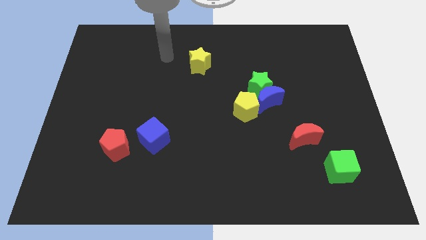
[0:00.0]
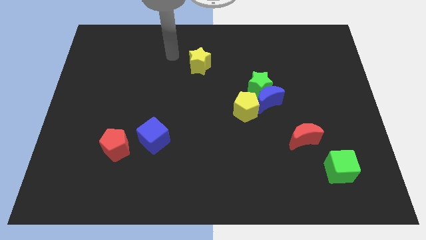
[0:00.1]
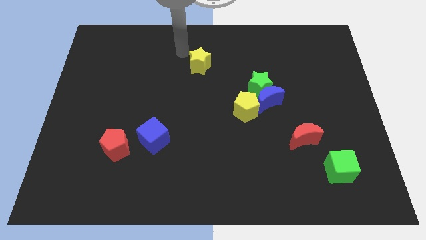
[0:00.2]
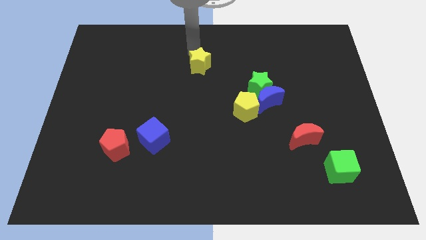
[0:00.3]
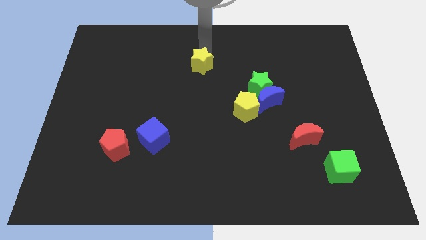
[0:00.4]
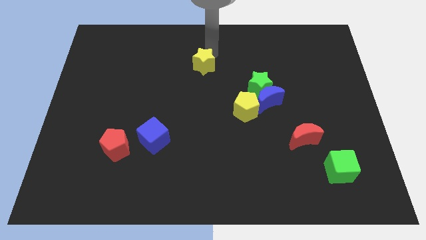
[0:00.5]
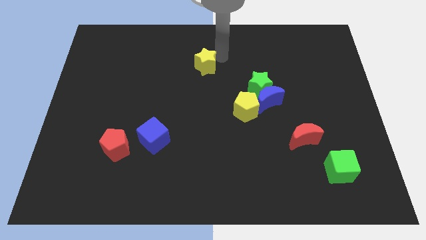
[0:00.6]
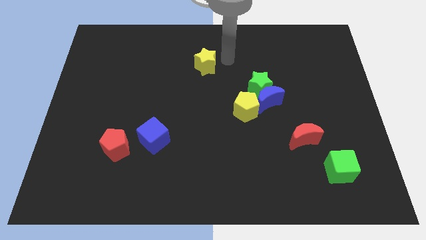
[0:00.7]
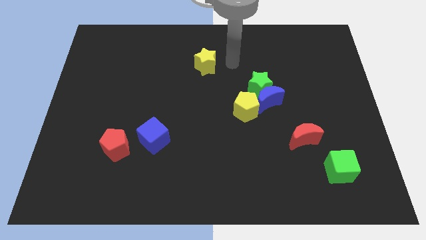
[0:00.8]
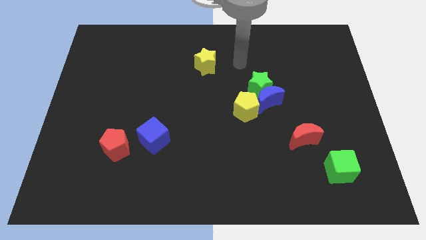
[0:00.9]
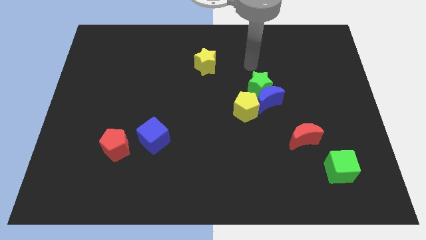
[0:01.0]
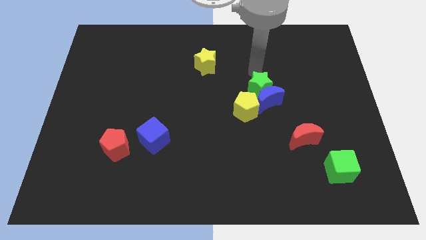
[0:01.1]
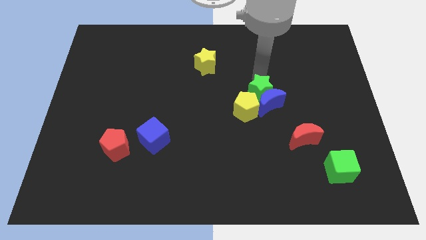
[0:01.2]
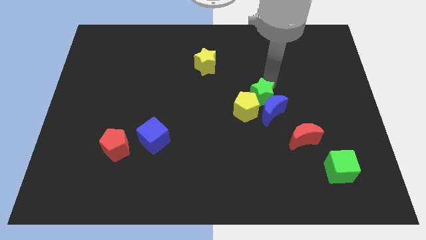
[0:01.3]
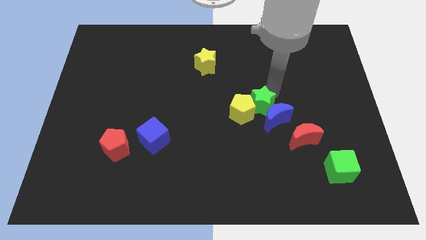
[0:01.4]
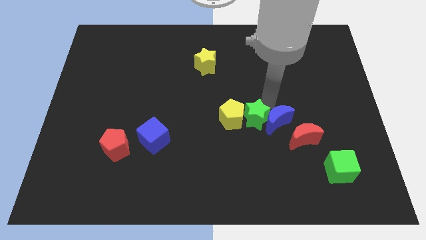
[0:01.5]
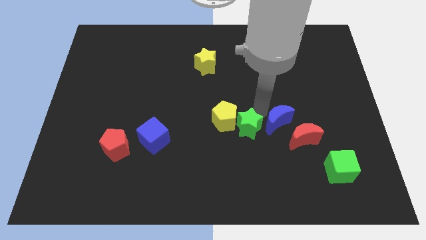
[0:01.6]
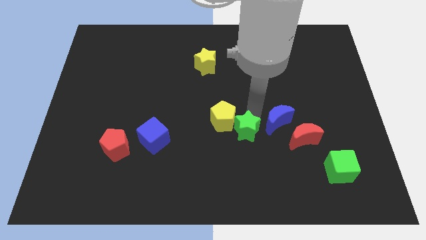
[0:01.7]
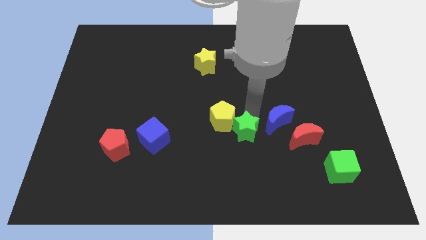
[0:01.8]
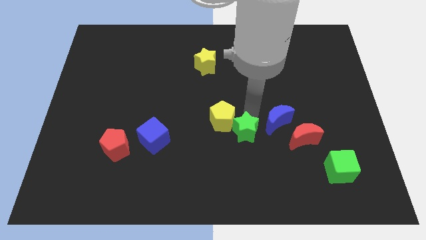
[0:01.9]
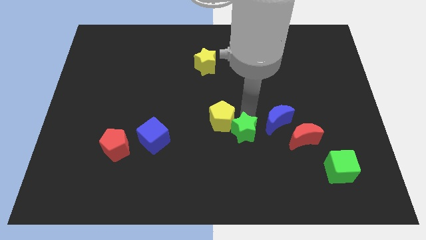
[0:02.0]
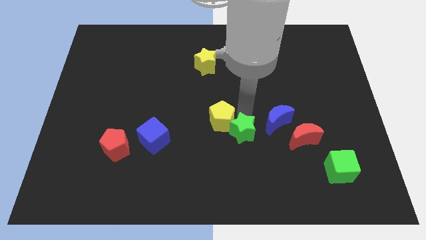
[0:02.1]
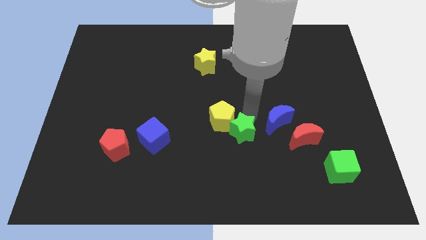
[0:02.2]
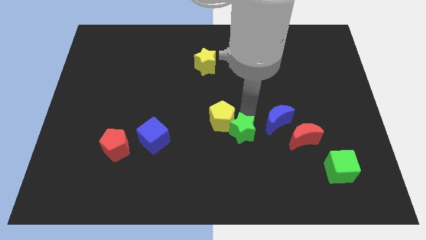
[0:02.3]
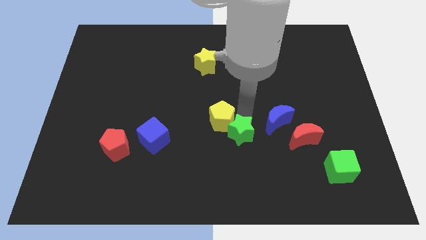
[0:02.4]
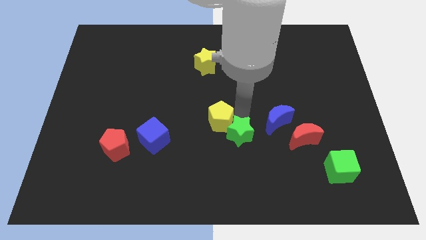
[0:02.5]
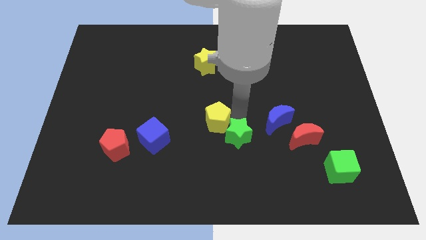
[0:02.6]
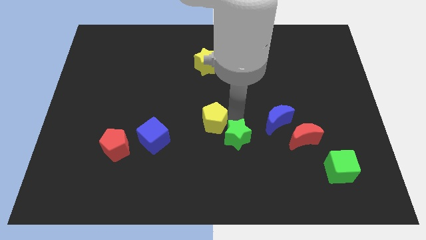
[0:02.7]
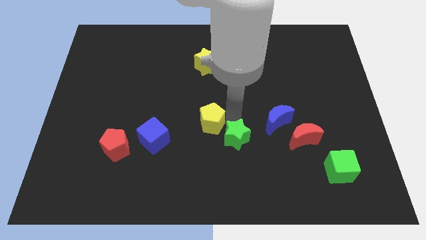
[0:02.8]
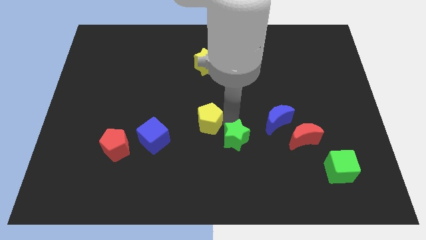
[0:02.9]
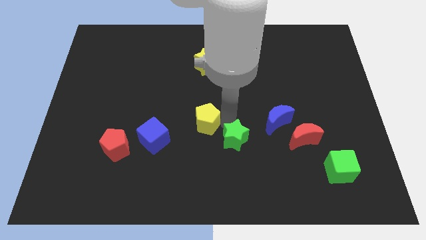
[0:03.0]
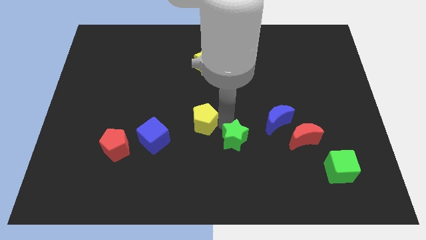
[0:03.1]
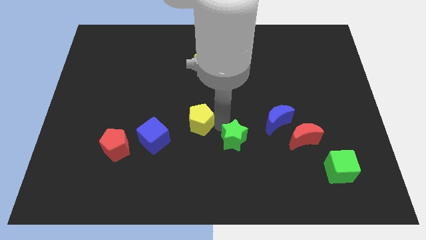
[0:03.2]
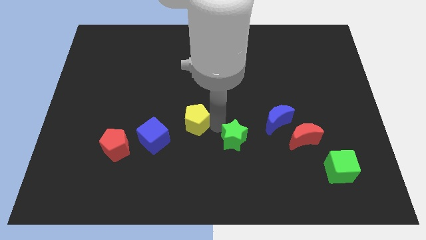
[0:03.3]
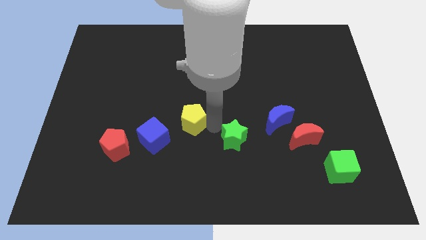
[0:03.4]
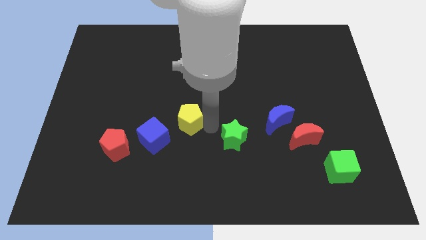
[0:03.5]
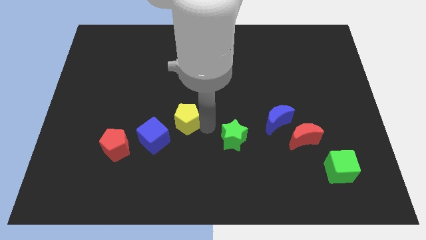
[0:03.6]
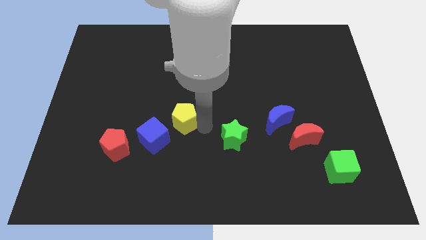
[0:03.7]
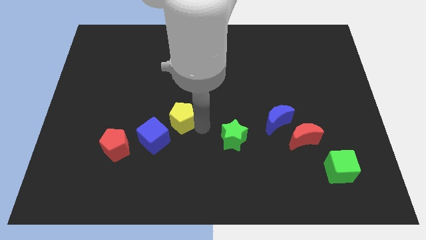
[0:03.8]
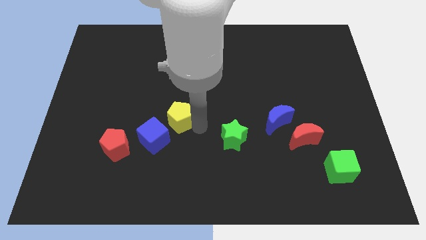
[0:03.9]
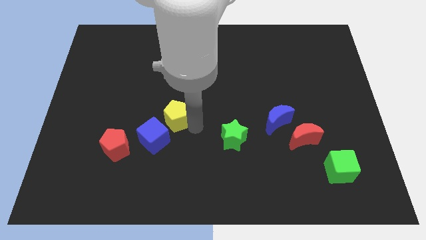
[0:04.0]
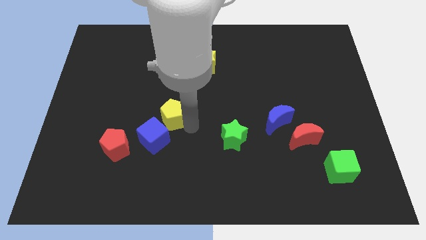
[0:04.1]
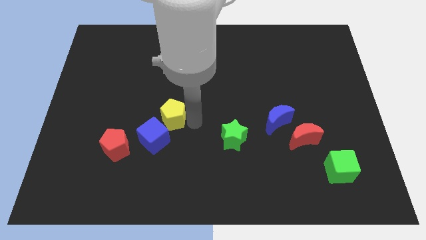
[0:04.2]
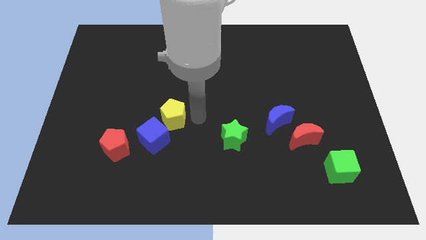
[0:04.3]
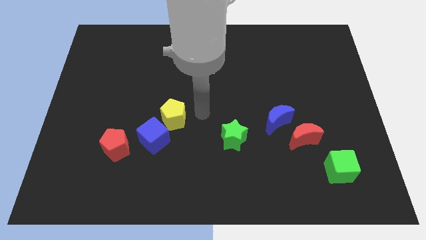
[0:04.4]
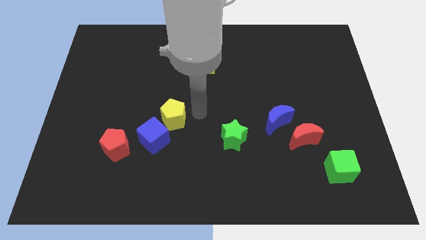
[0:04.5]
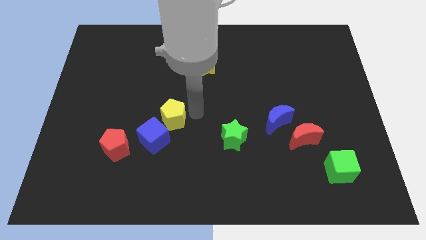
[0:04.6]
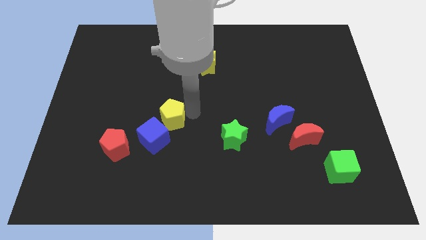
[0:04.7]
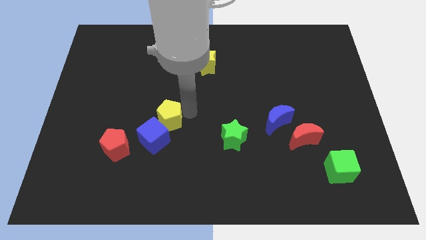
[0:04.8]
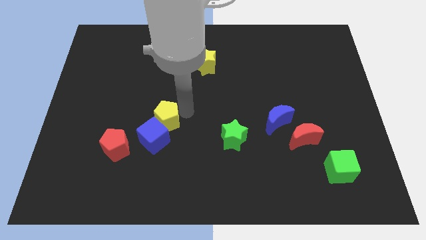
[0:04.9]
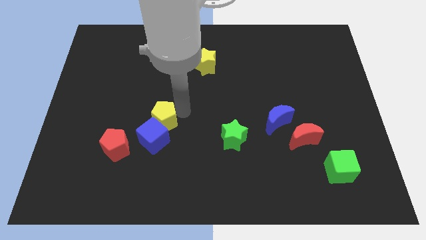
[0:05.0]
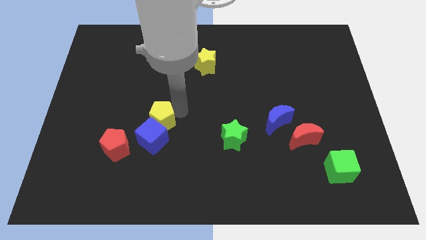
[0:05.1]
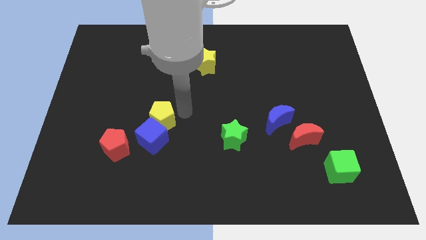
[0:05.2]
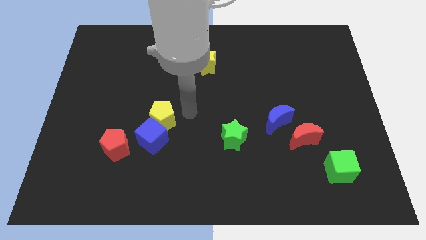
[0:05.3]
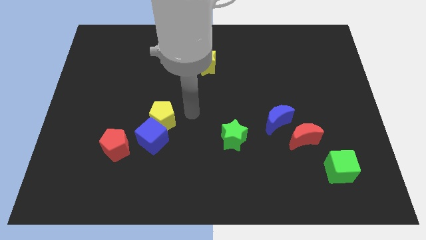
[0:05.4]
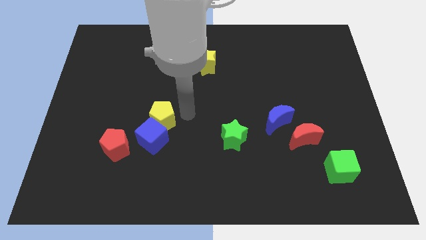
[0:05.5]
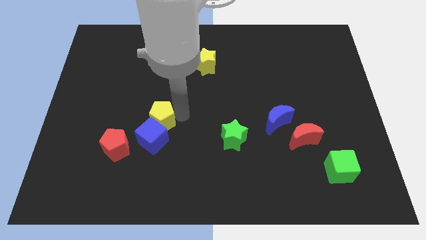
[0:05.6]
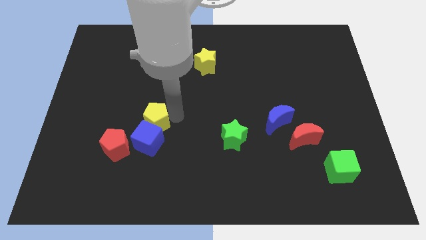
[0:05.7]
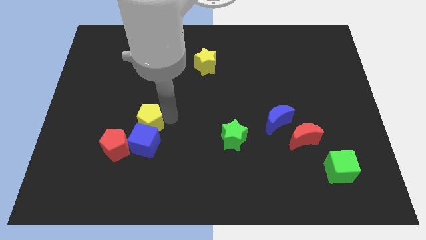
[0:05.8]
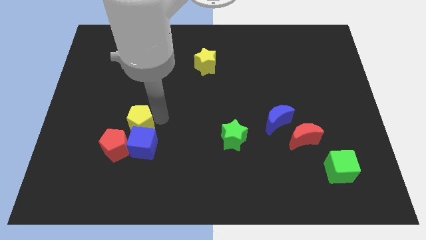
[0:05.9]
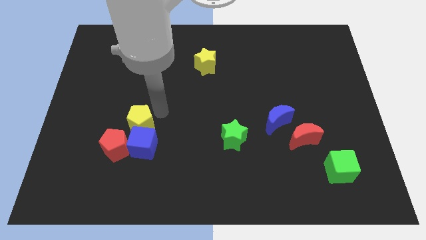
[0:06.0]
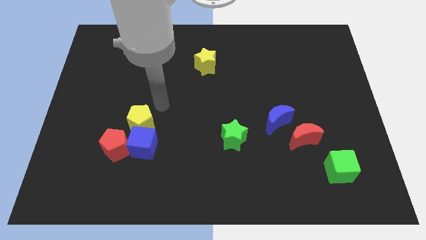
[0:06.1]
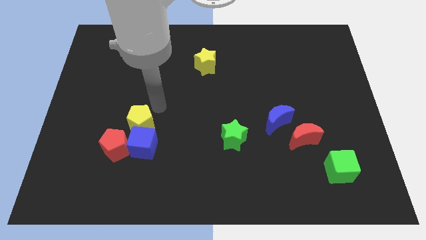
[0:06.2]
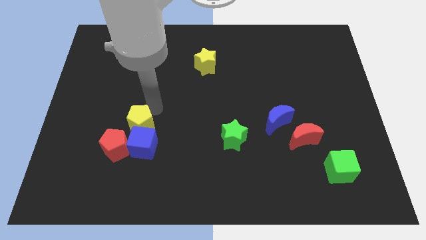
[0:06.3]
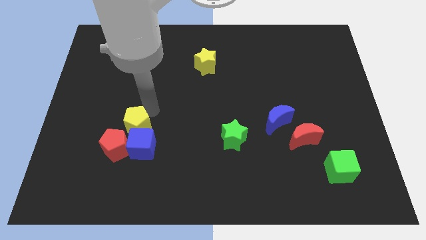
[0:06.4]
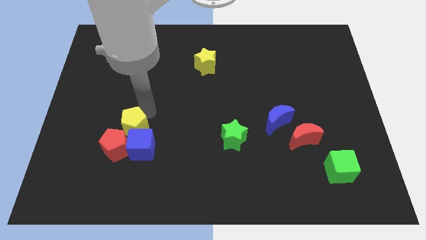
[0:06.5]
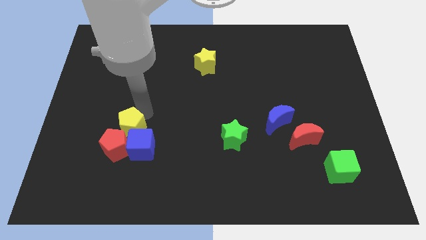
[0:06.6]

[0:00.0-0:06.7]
put the yellow pentagon close to the red pentagon
